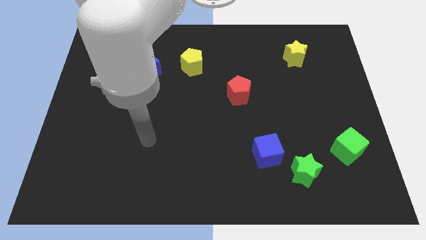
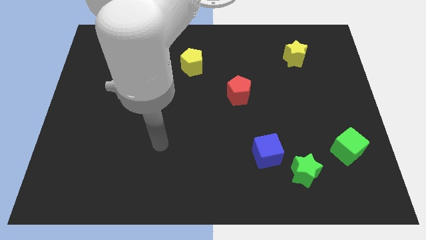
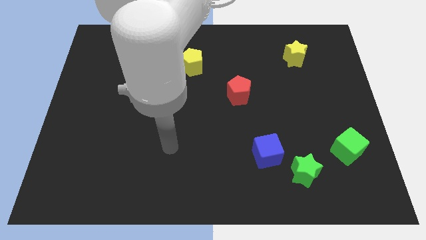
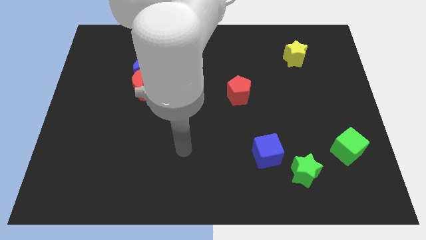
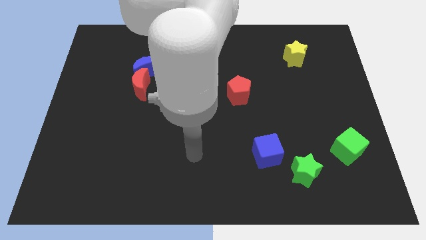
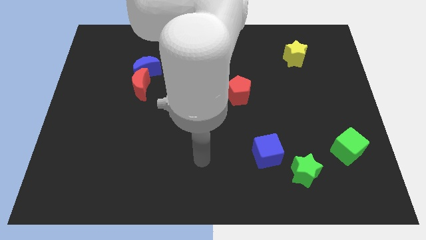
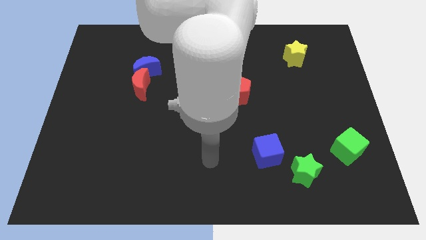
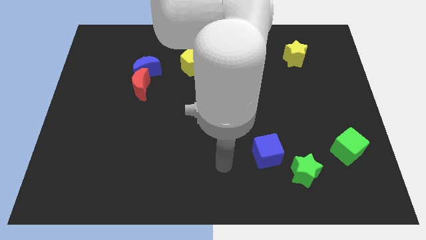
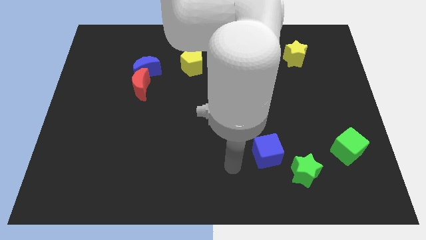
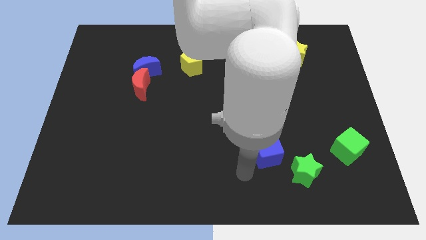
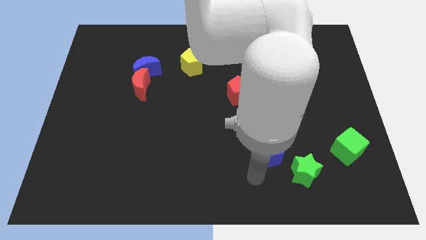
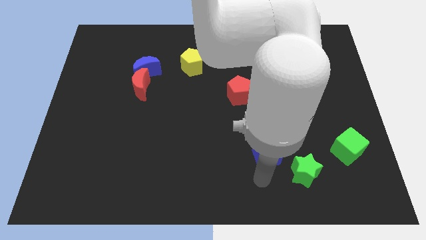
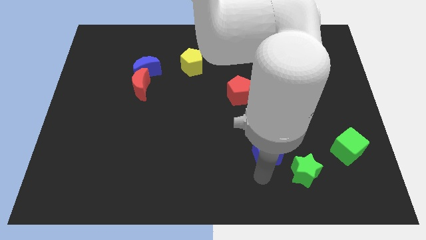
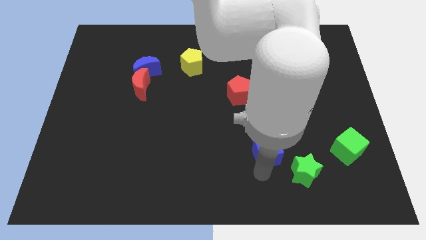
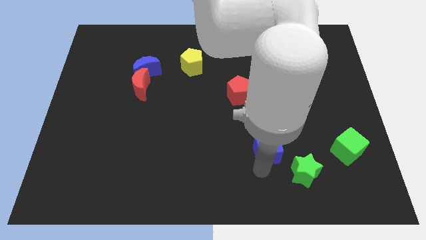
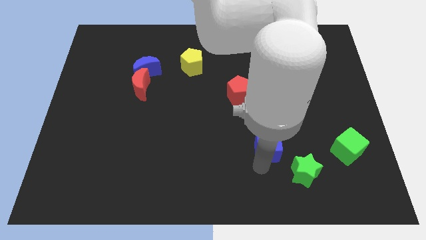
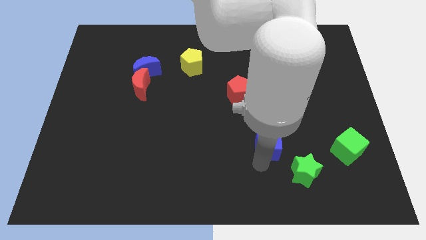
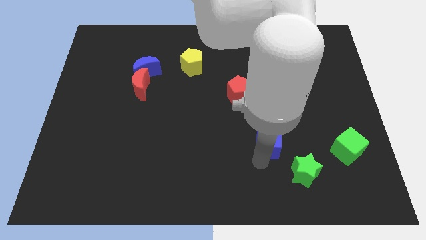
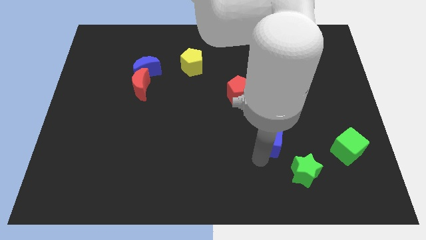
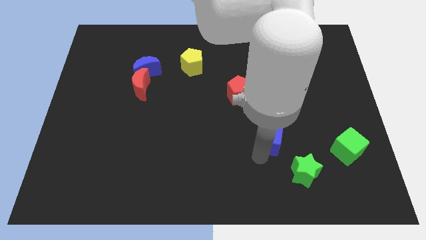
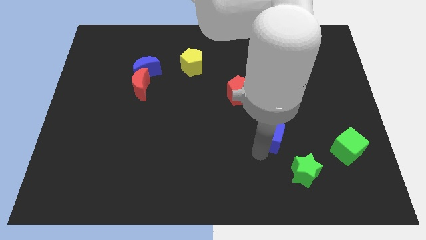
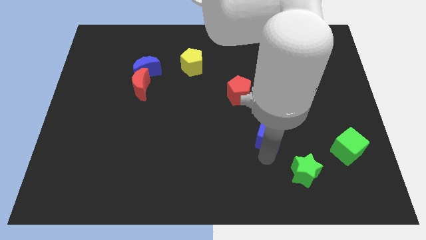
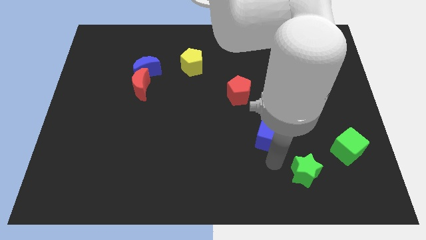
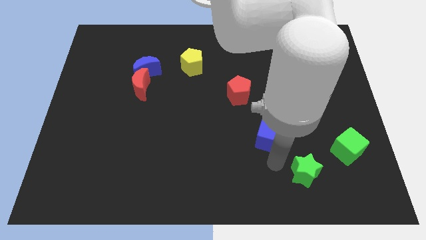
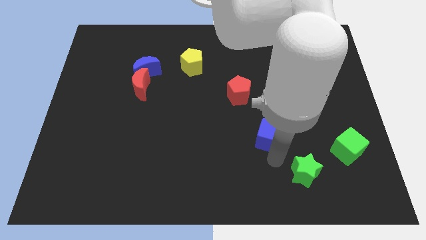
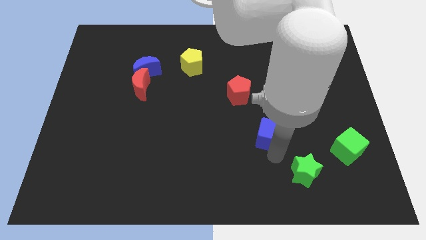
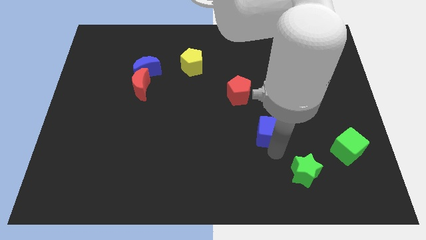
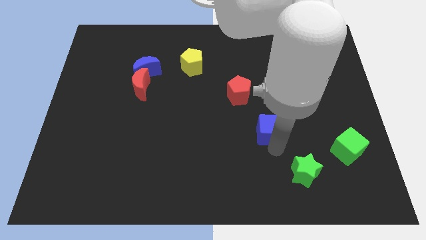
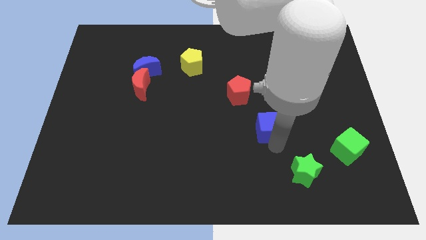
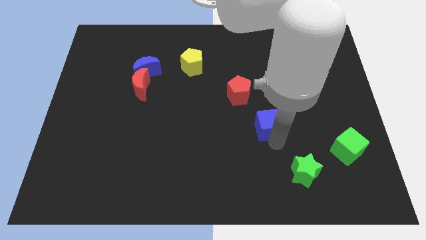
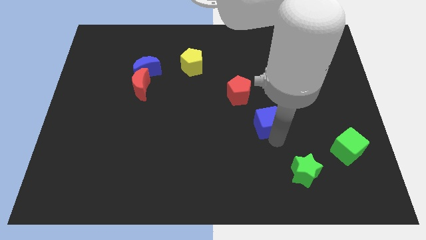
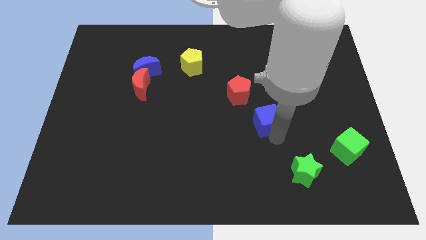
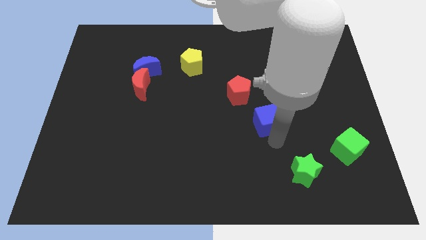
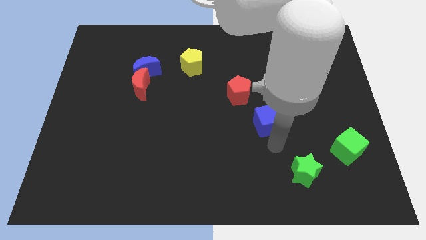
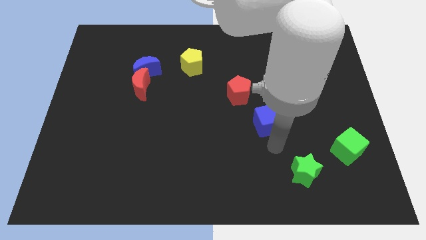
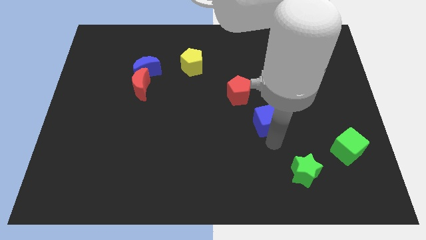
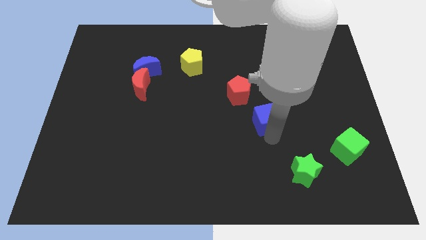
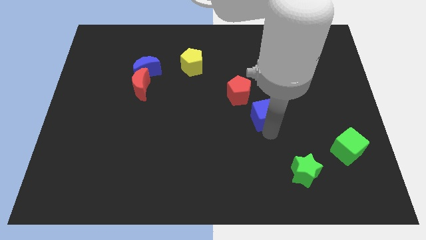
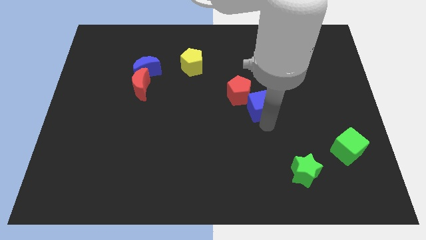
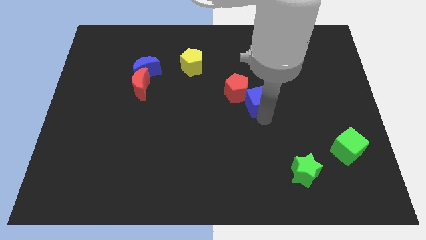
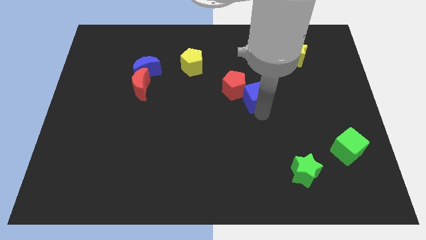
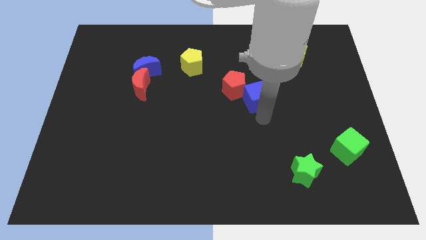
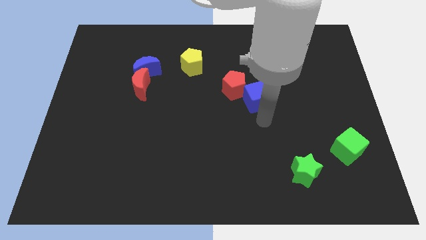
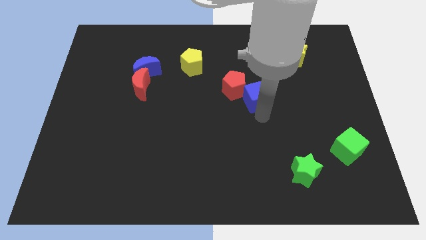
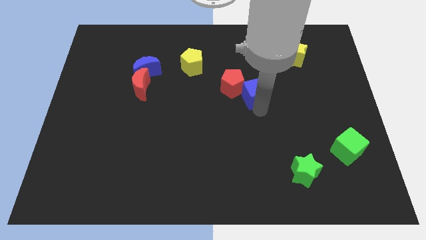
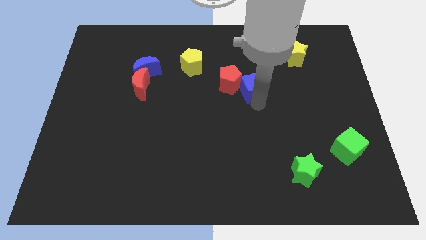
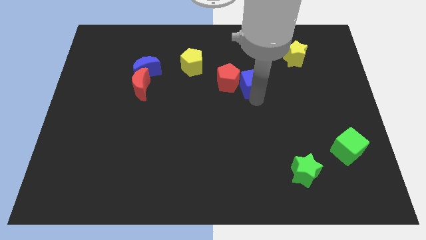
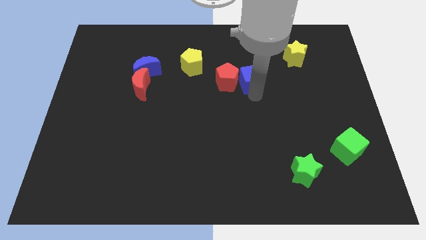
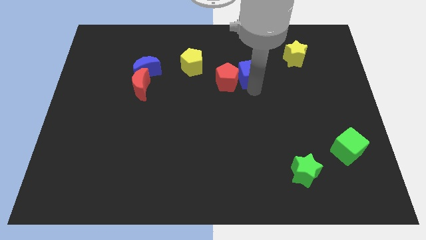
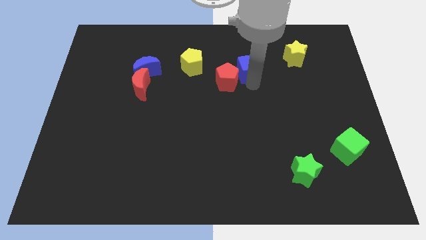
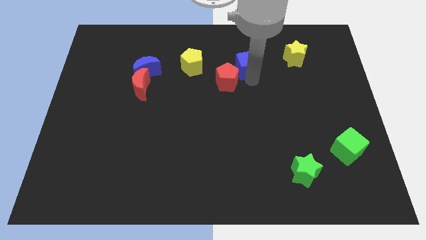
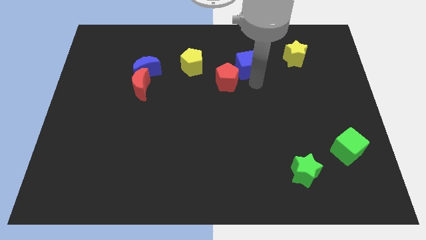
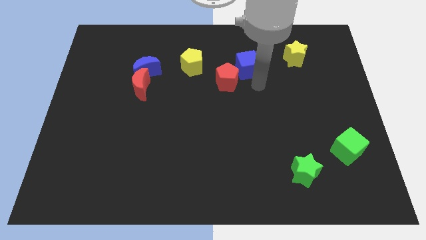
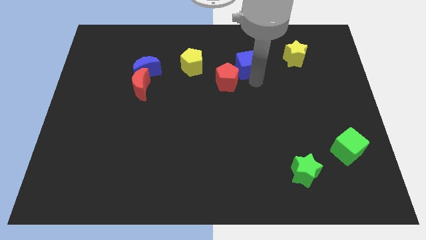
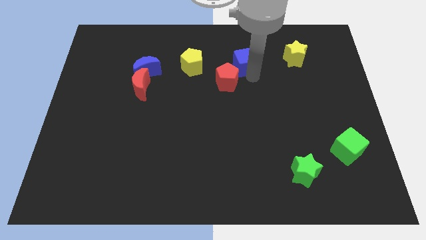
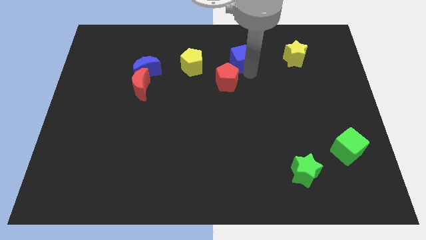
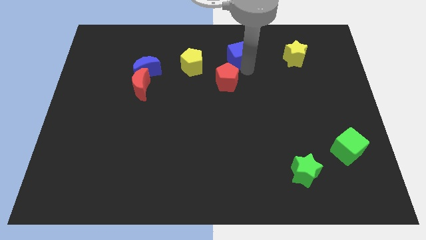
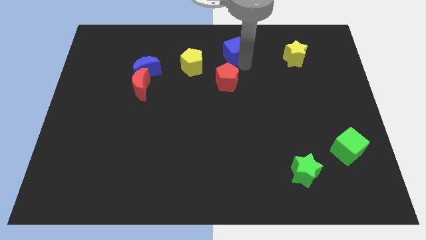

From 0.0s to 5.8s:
push the blue cube to the towards your base
